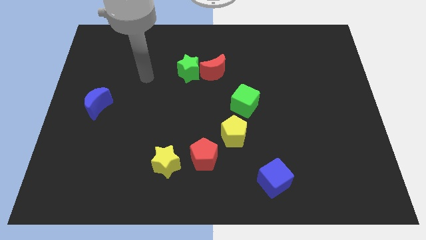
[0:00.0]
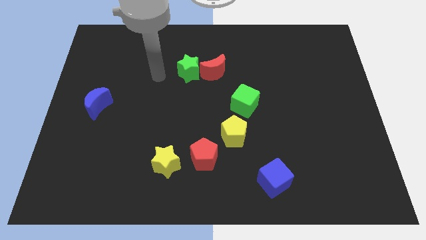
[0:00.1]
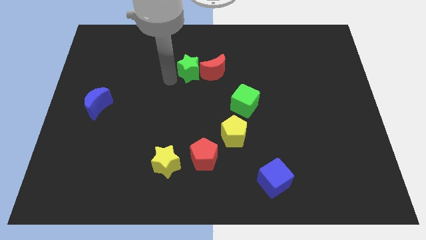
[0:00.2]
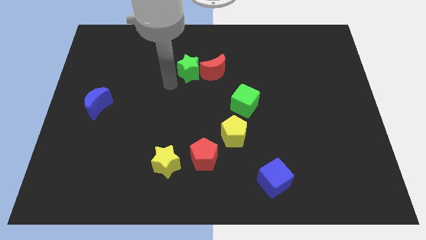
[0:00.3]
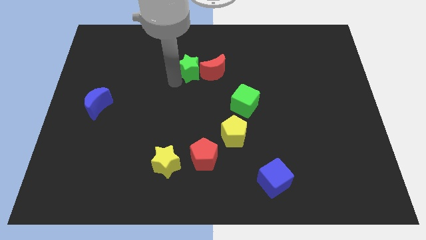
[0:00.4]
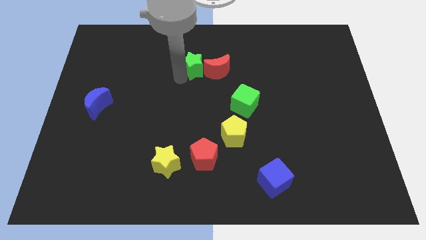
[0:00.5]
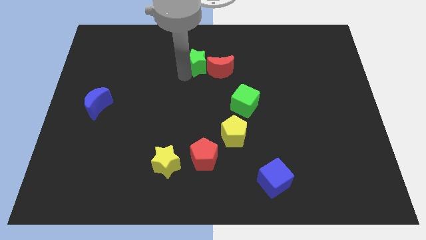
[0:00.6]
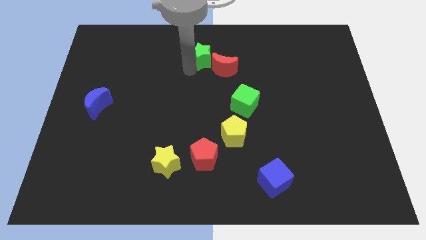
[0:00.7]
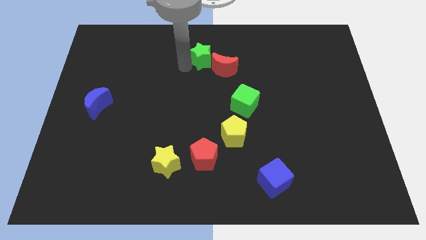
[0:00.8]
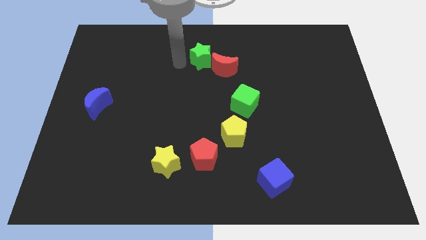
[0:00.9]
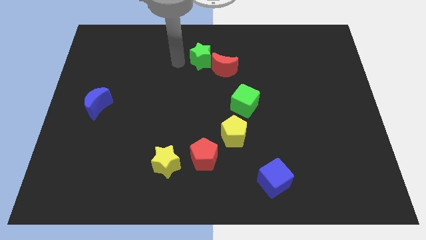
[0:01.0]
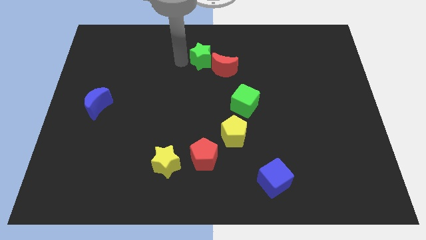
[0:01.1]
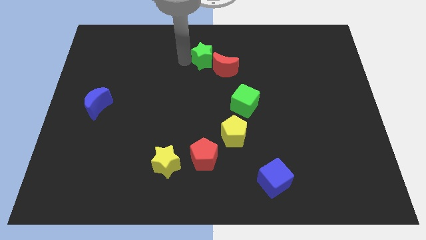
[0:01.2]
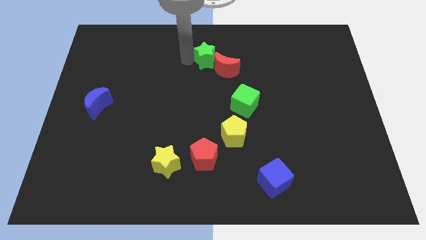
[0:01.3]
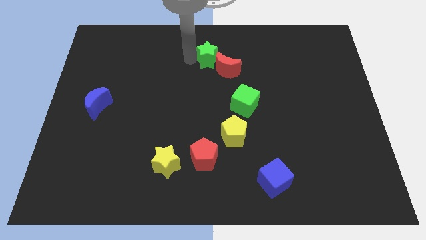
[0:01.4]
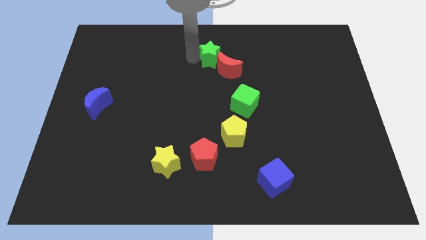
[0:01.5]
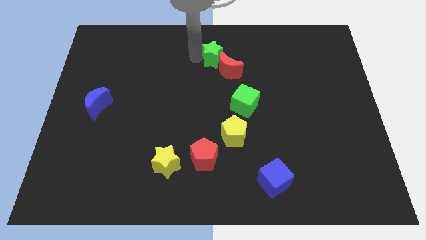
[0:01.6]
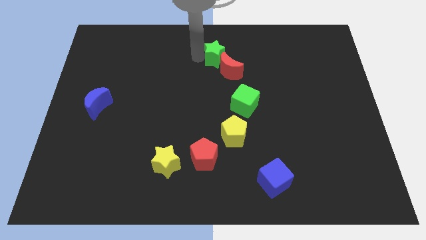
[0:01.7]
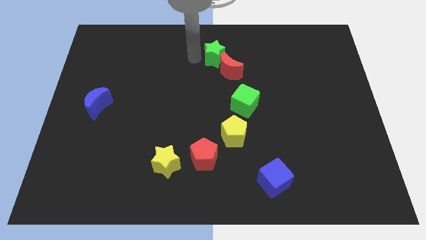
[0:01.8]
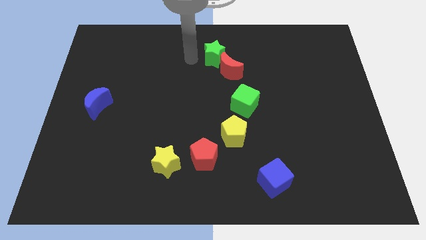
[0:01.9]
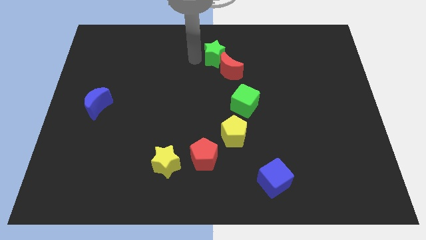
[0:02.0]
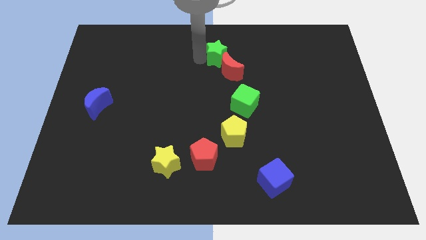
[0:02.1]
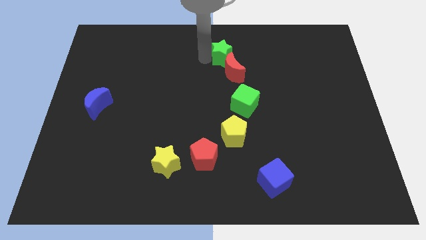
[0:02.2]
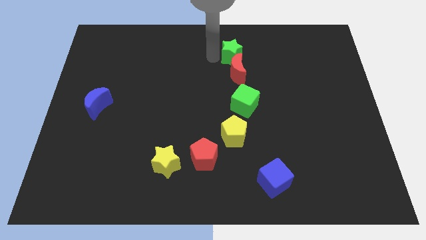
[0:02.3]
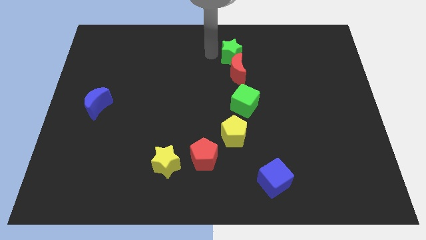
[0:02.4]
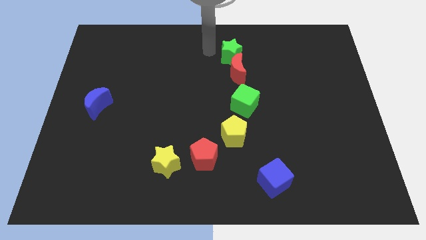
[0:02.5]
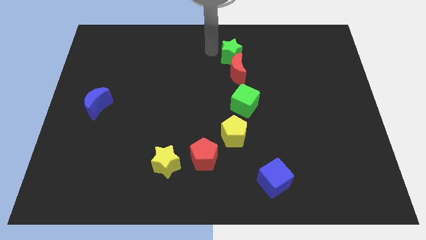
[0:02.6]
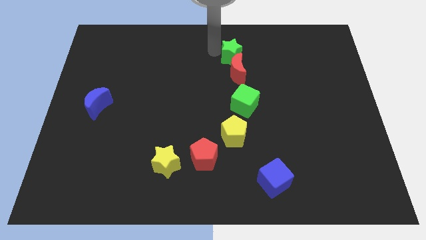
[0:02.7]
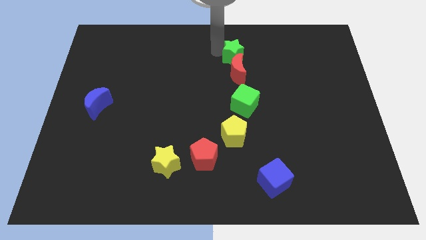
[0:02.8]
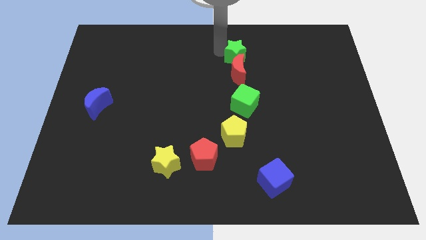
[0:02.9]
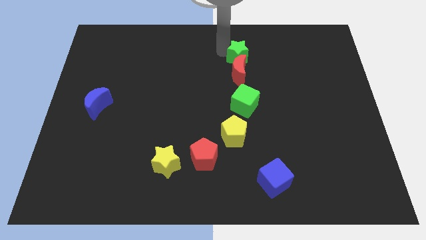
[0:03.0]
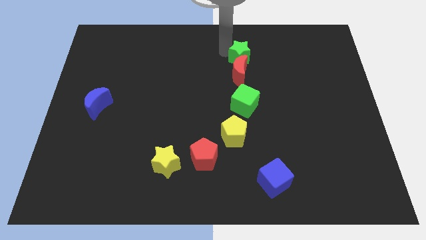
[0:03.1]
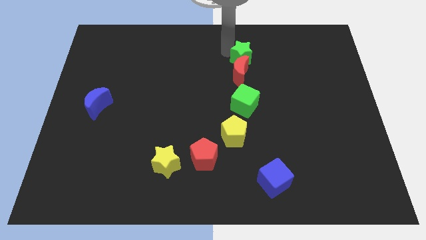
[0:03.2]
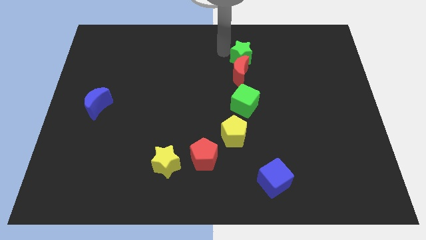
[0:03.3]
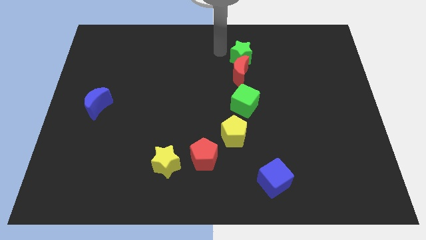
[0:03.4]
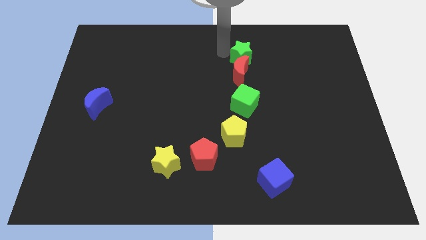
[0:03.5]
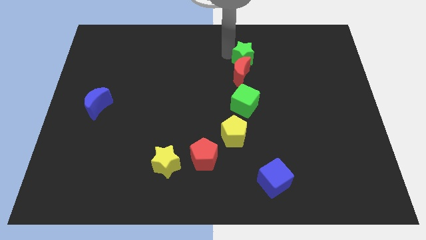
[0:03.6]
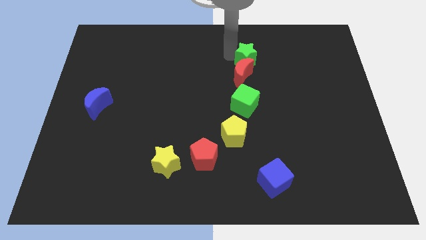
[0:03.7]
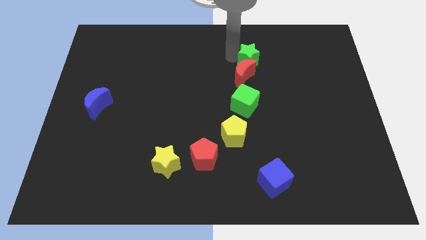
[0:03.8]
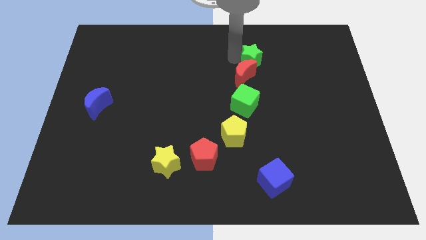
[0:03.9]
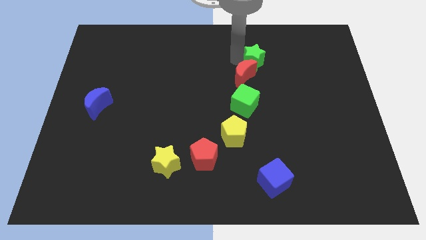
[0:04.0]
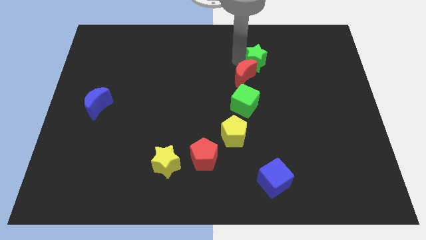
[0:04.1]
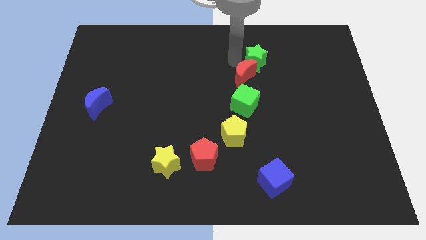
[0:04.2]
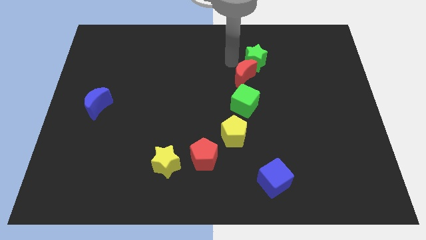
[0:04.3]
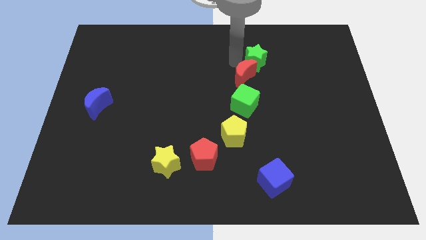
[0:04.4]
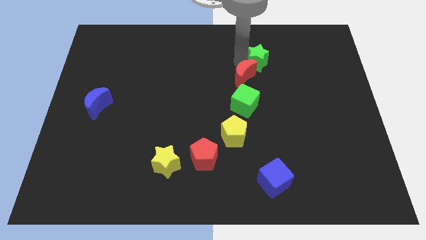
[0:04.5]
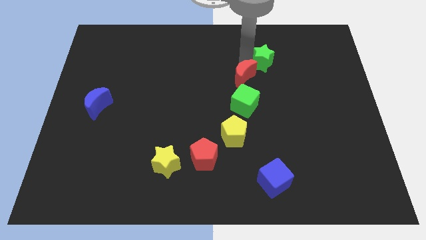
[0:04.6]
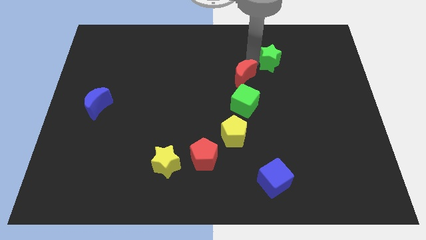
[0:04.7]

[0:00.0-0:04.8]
push the green star to the right

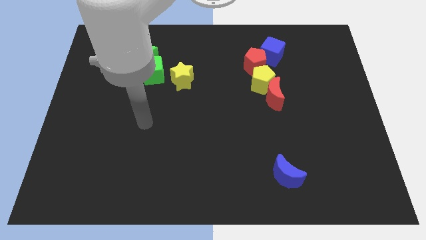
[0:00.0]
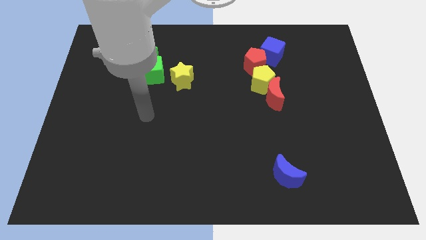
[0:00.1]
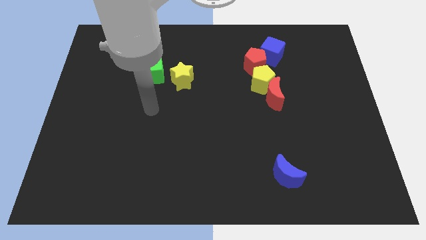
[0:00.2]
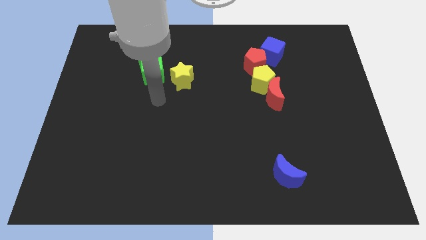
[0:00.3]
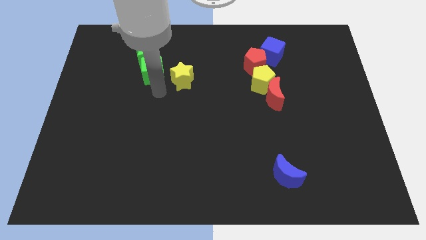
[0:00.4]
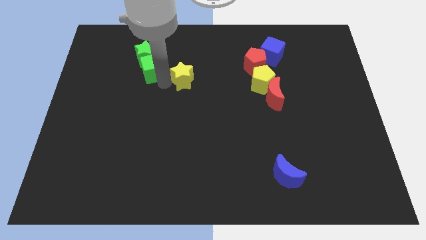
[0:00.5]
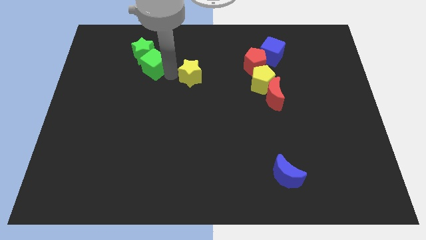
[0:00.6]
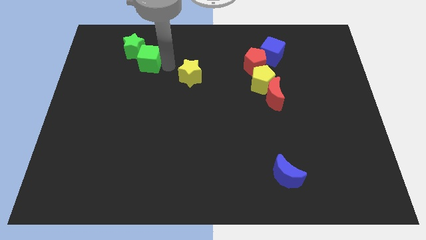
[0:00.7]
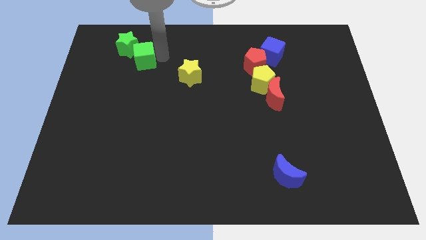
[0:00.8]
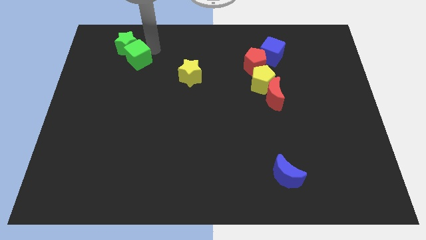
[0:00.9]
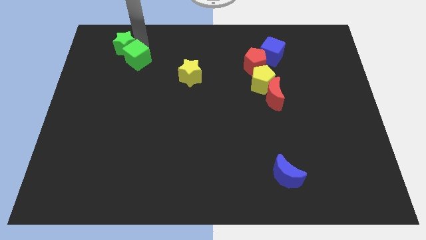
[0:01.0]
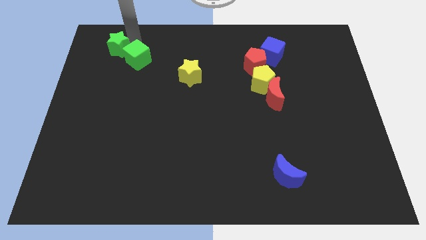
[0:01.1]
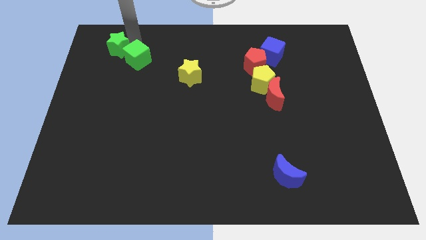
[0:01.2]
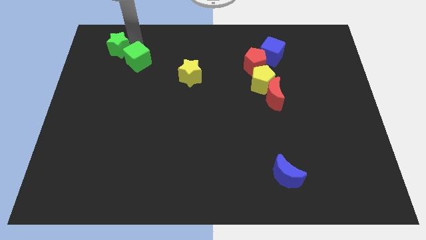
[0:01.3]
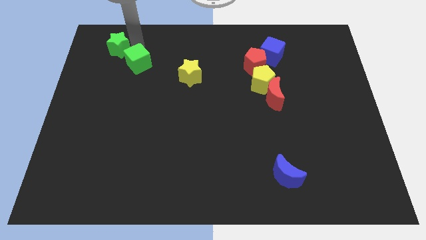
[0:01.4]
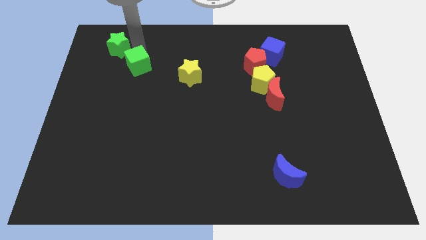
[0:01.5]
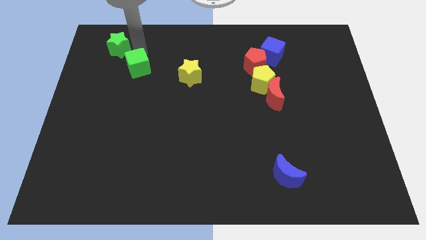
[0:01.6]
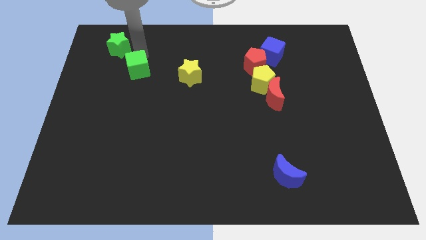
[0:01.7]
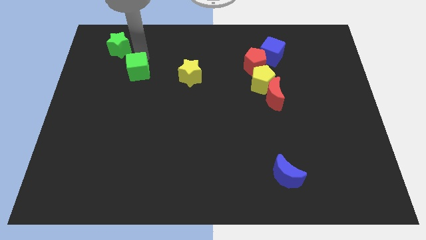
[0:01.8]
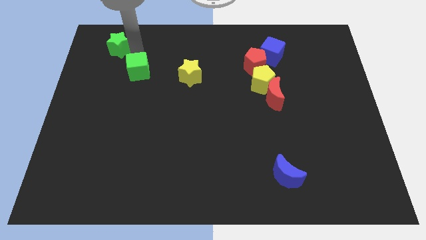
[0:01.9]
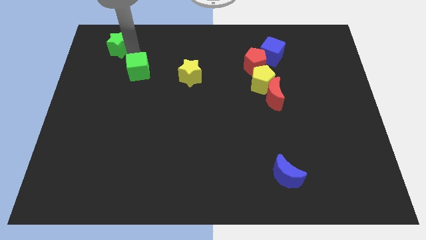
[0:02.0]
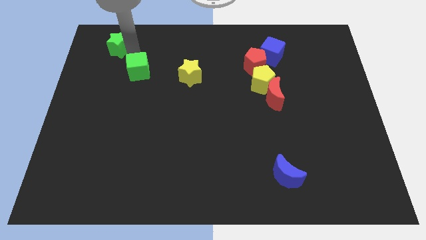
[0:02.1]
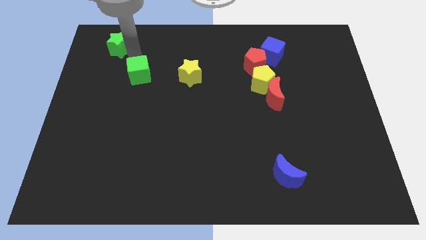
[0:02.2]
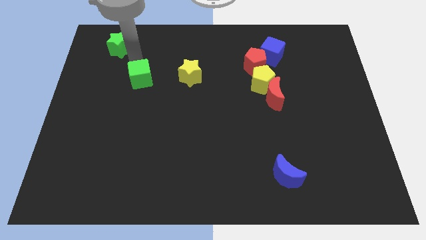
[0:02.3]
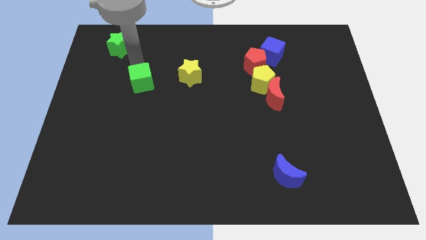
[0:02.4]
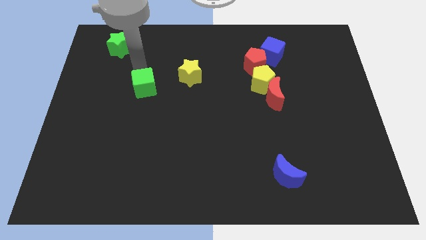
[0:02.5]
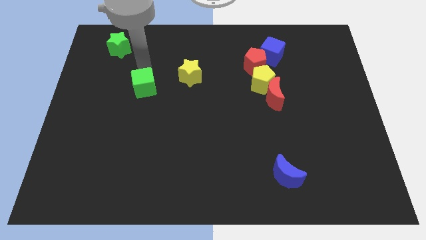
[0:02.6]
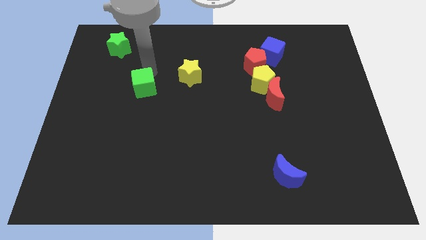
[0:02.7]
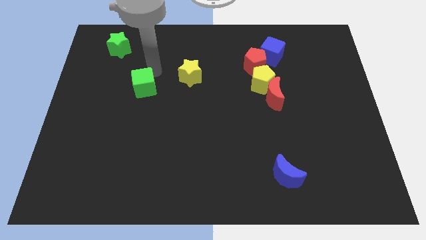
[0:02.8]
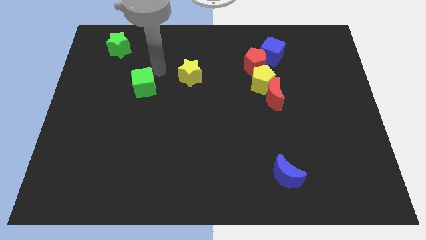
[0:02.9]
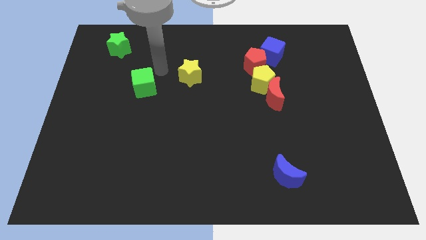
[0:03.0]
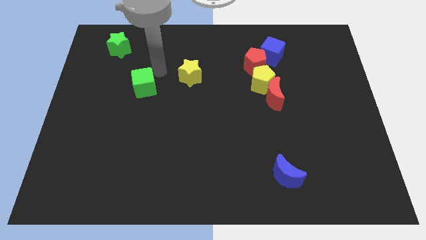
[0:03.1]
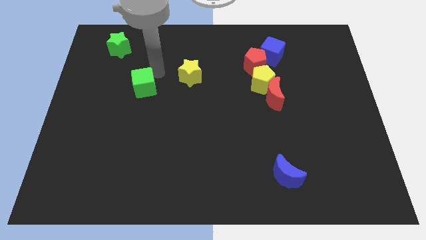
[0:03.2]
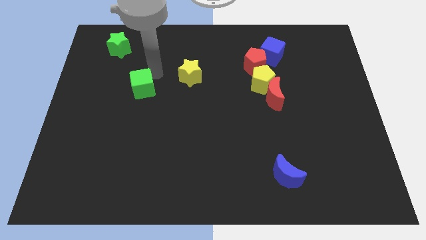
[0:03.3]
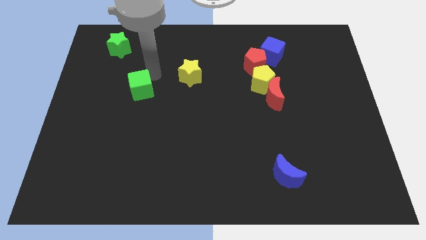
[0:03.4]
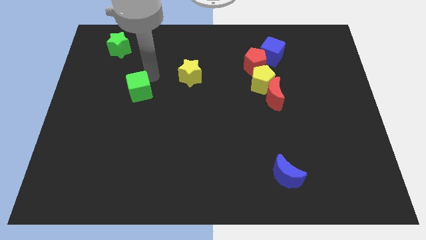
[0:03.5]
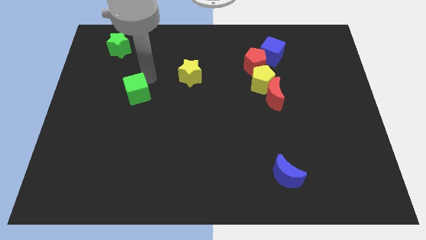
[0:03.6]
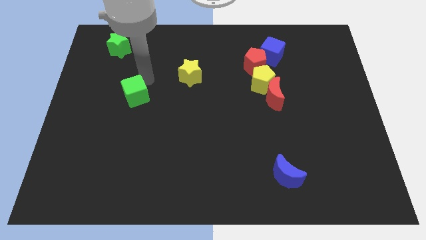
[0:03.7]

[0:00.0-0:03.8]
slide the green cube a little bit diagonally down and left
